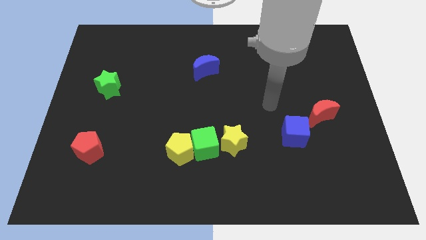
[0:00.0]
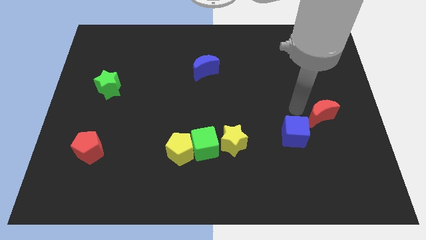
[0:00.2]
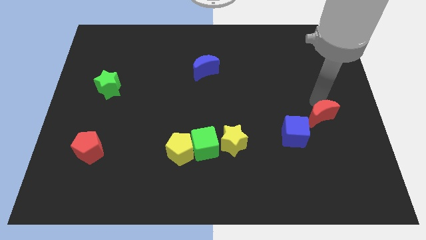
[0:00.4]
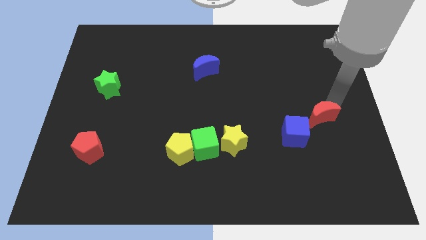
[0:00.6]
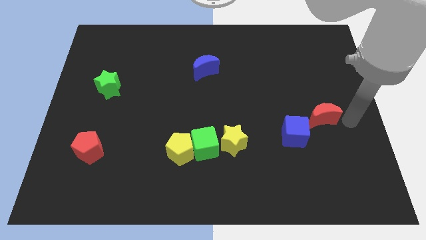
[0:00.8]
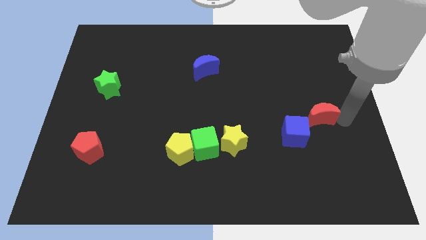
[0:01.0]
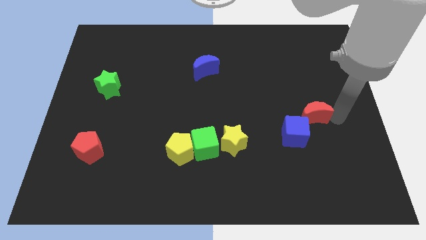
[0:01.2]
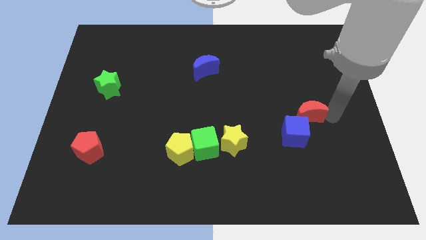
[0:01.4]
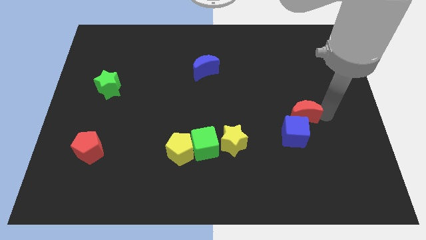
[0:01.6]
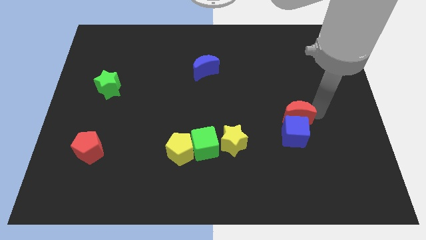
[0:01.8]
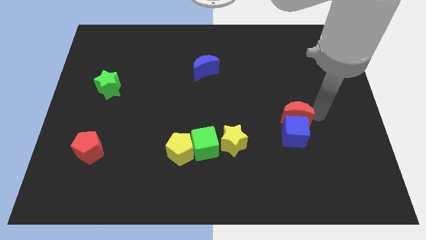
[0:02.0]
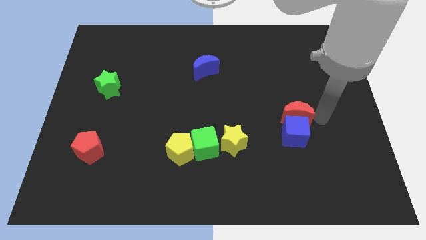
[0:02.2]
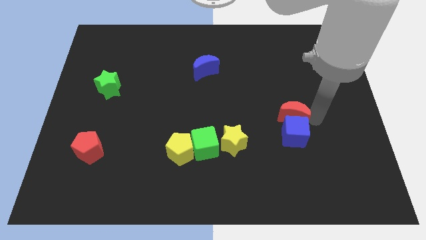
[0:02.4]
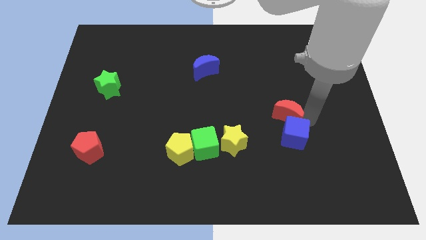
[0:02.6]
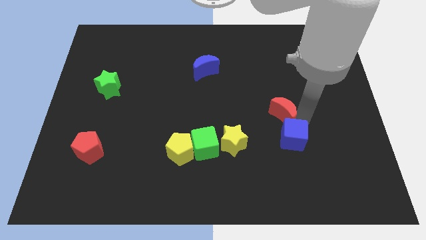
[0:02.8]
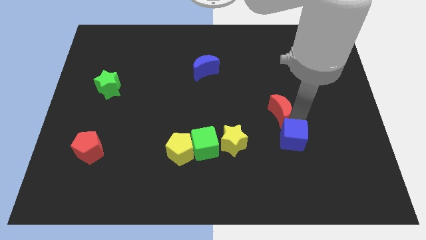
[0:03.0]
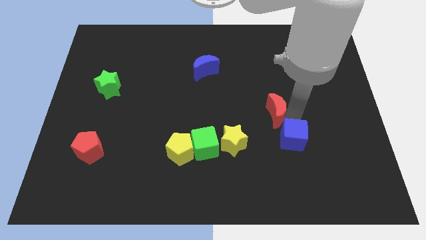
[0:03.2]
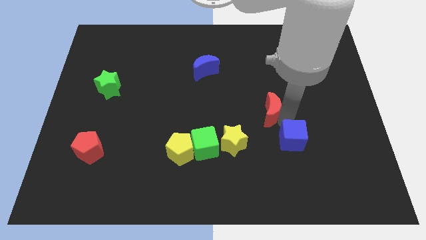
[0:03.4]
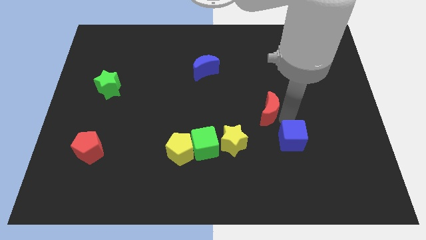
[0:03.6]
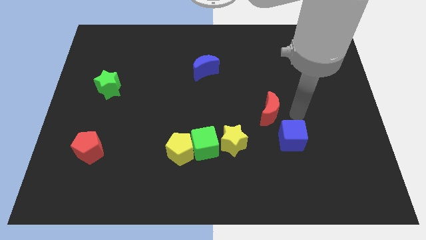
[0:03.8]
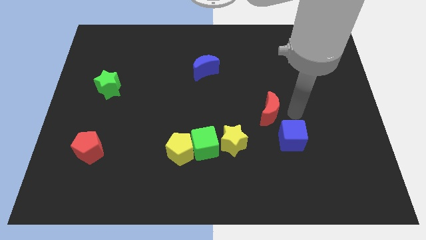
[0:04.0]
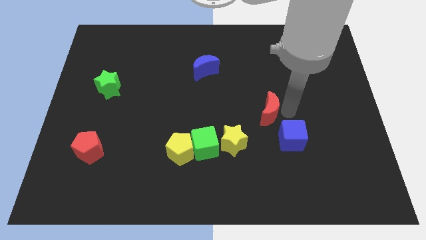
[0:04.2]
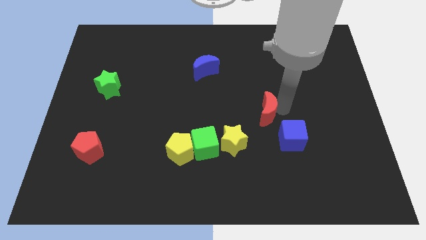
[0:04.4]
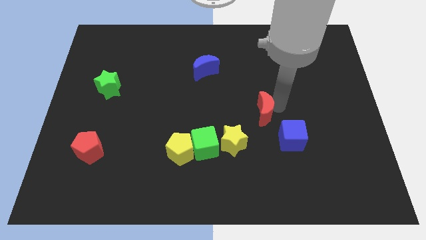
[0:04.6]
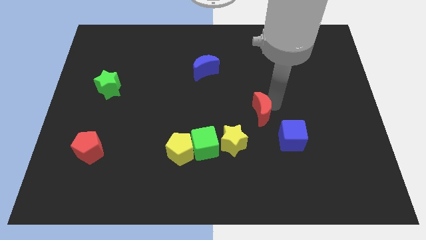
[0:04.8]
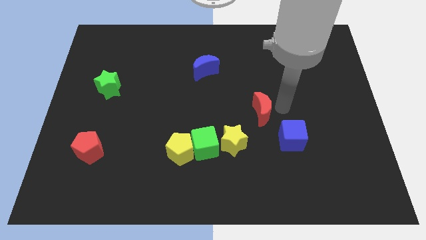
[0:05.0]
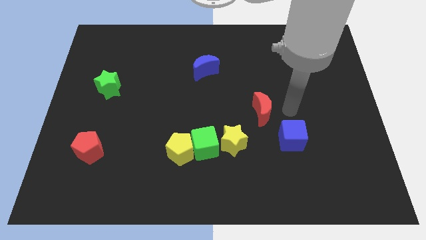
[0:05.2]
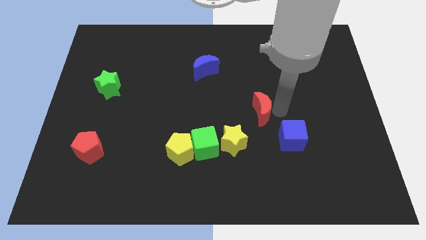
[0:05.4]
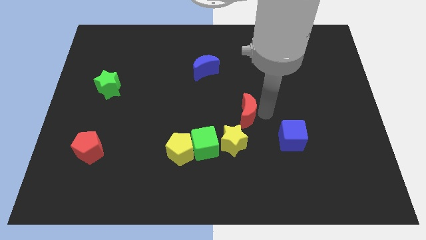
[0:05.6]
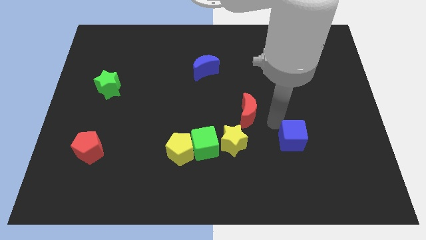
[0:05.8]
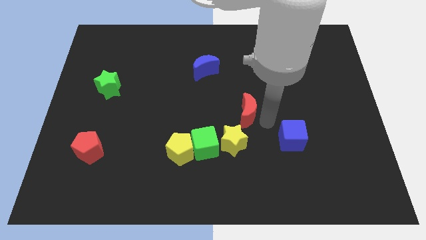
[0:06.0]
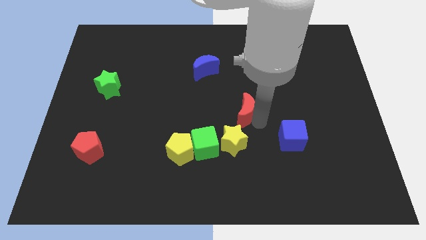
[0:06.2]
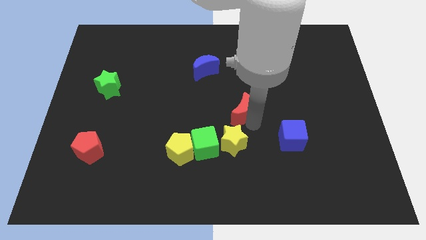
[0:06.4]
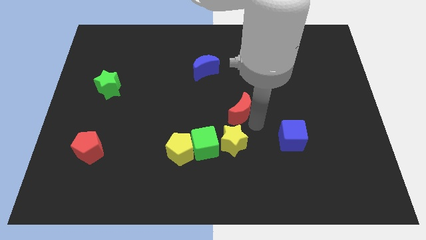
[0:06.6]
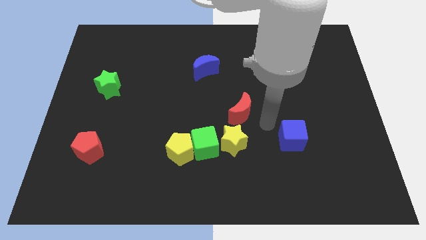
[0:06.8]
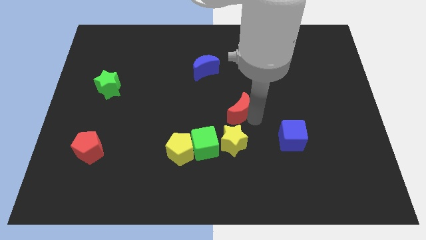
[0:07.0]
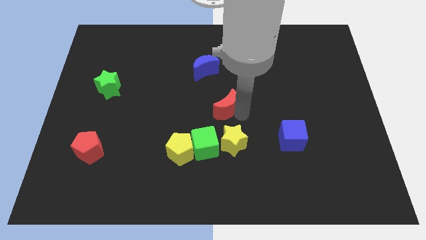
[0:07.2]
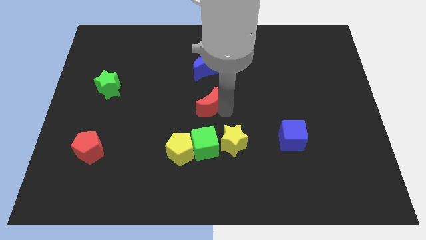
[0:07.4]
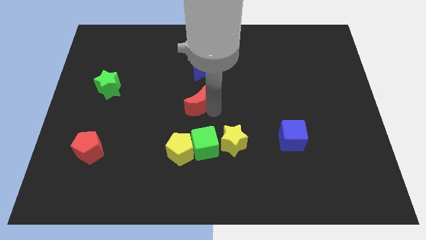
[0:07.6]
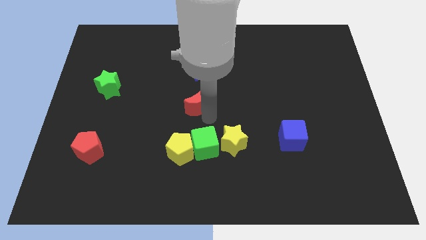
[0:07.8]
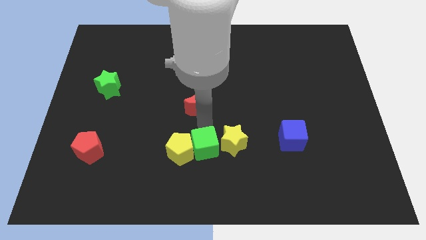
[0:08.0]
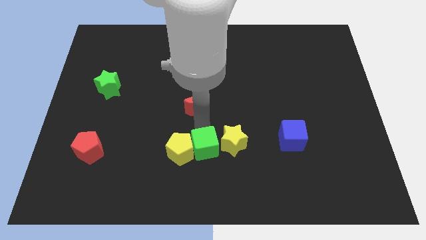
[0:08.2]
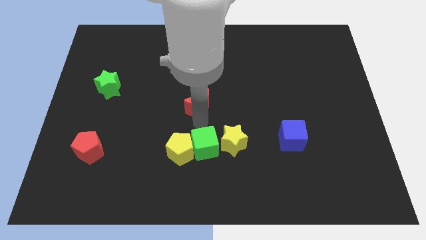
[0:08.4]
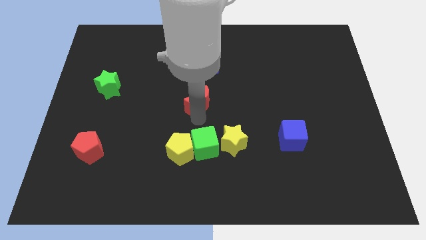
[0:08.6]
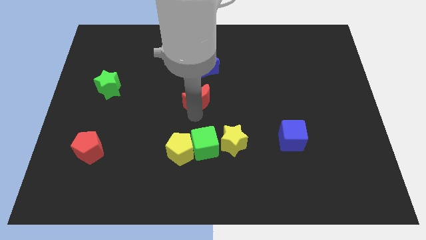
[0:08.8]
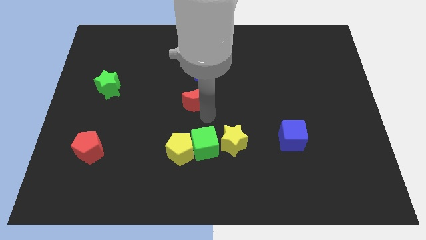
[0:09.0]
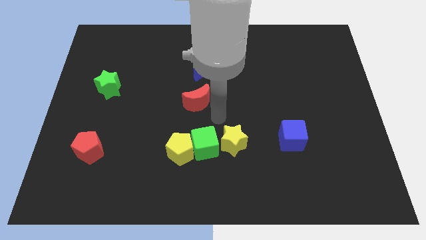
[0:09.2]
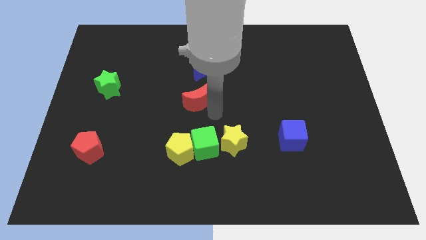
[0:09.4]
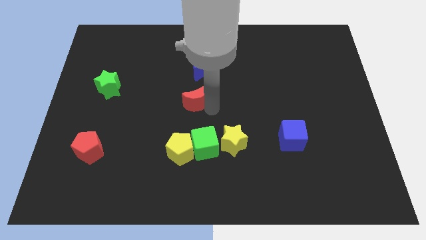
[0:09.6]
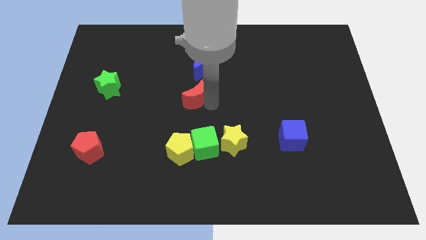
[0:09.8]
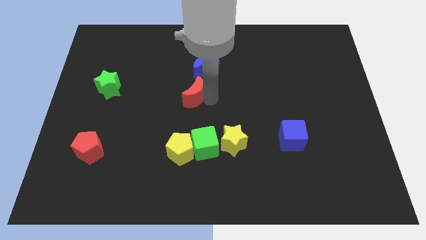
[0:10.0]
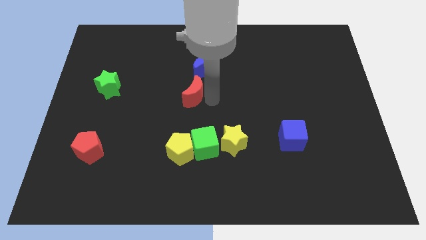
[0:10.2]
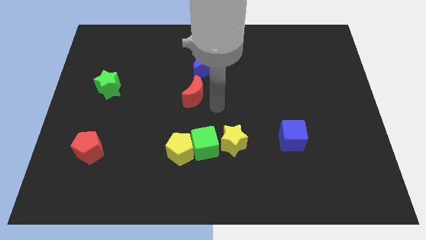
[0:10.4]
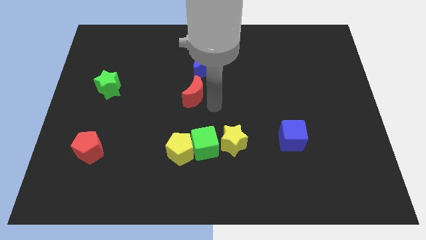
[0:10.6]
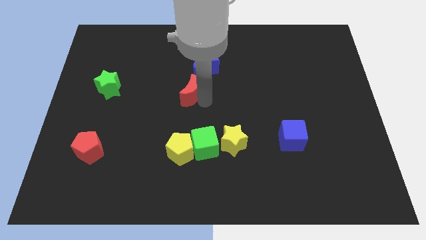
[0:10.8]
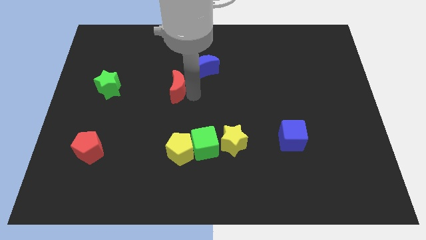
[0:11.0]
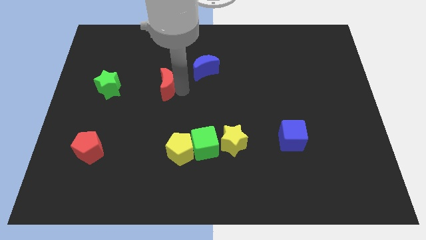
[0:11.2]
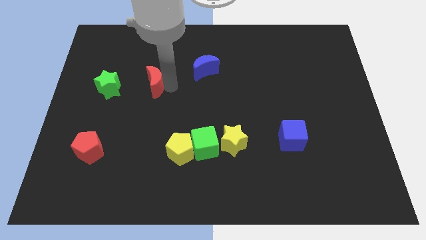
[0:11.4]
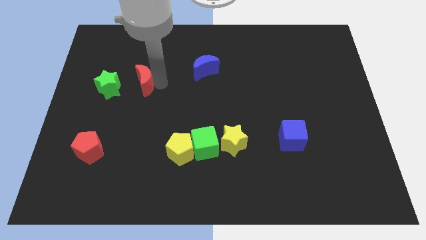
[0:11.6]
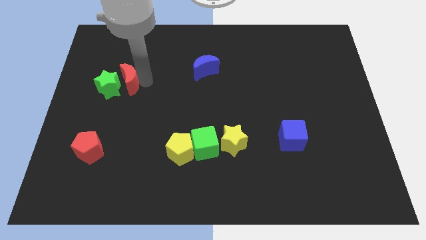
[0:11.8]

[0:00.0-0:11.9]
push the red moon towards the green star
